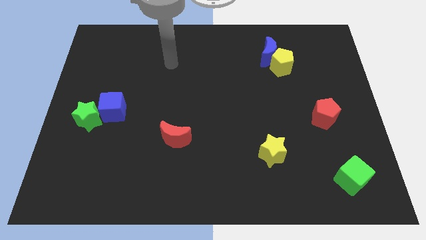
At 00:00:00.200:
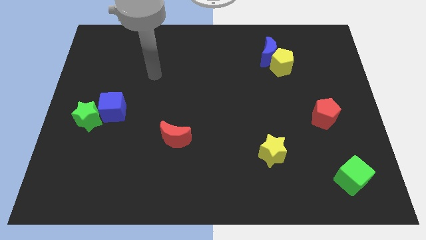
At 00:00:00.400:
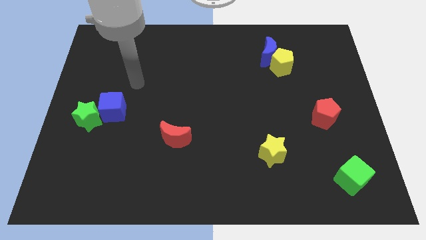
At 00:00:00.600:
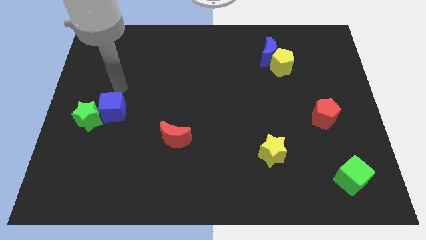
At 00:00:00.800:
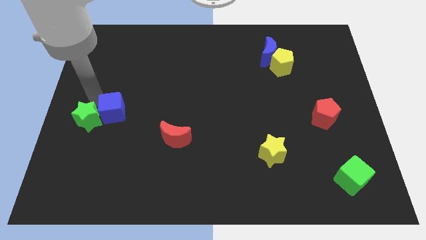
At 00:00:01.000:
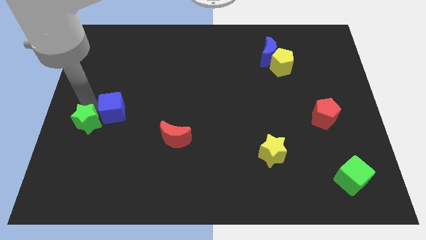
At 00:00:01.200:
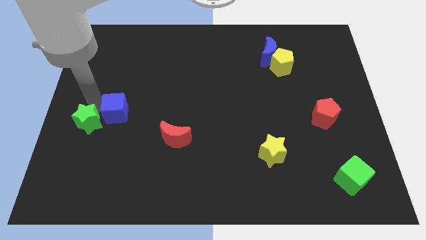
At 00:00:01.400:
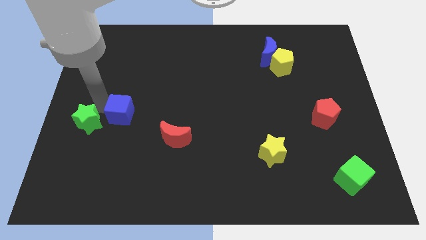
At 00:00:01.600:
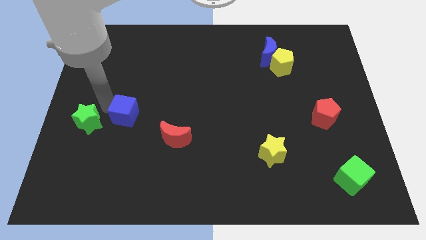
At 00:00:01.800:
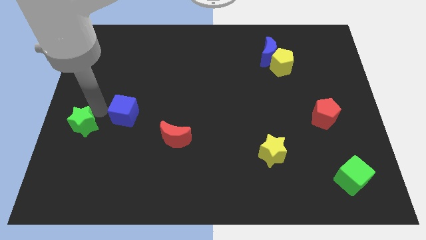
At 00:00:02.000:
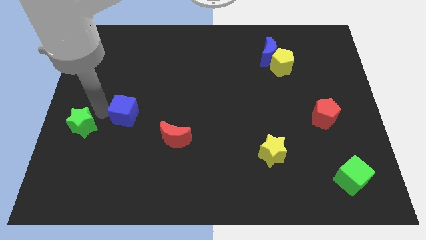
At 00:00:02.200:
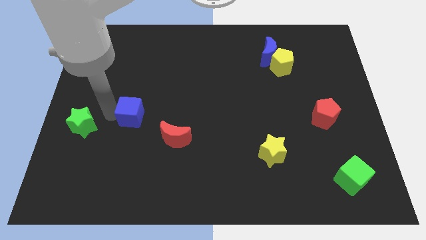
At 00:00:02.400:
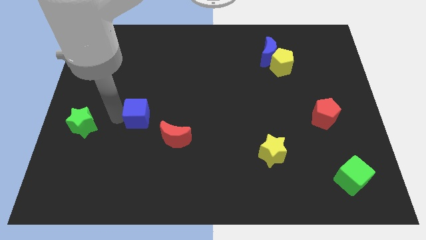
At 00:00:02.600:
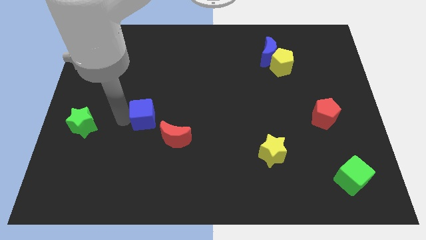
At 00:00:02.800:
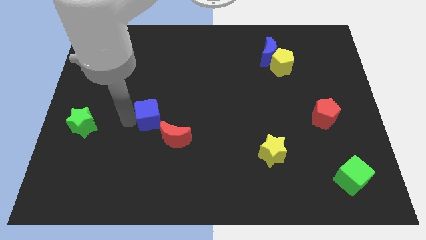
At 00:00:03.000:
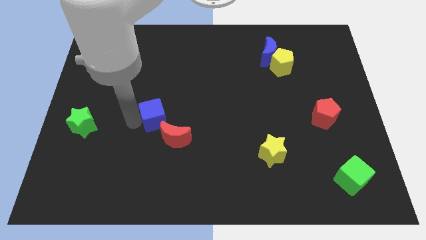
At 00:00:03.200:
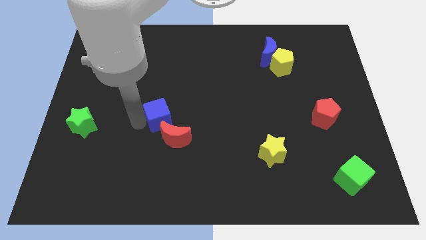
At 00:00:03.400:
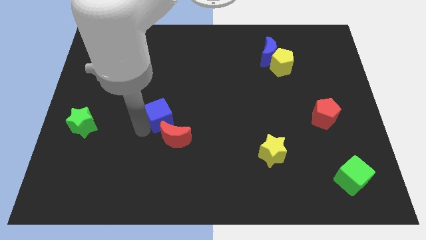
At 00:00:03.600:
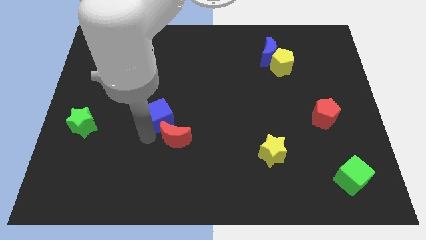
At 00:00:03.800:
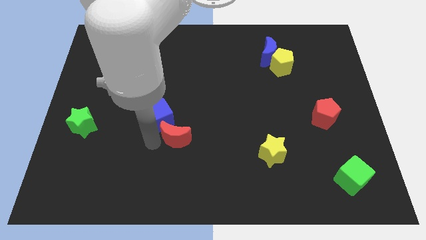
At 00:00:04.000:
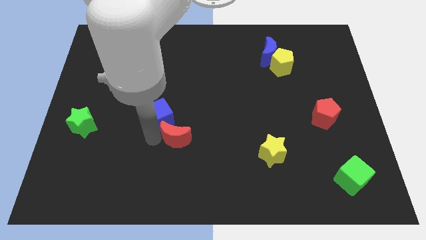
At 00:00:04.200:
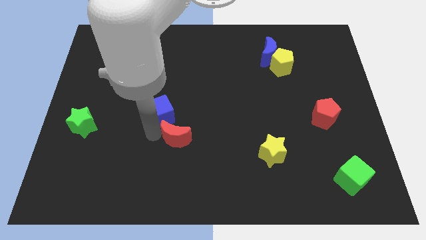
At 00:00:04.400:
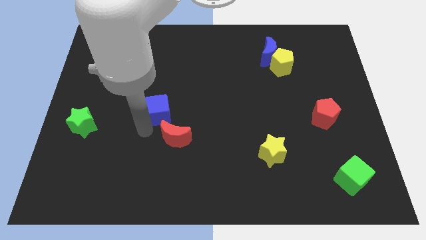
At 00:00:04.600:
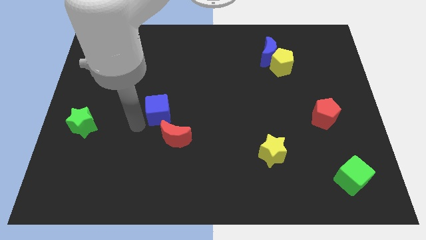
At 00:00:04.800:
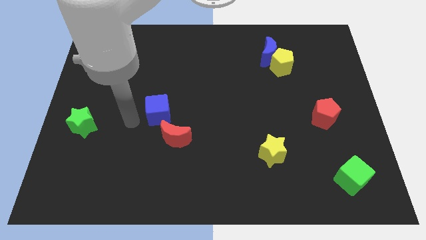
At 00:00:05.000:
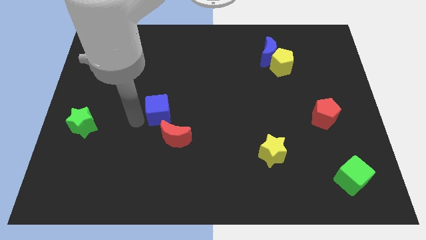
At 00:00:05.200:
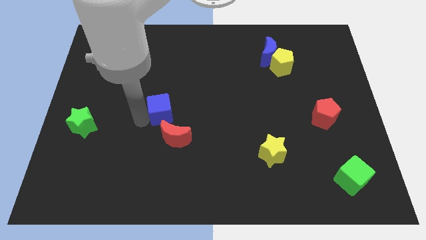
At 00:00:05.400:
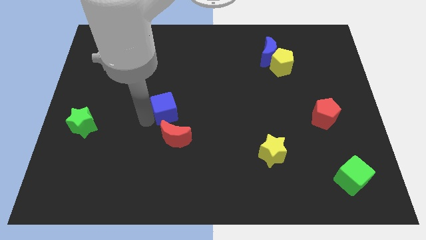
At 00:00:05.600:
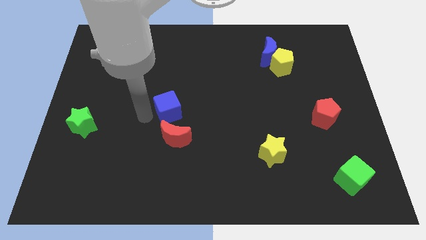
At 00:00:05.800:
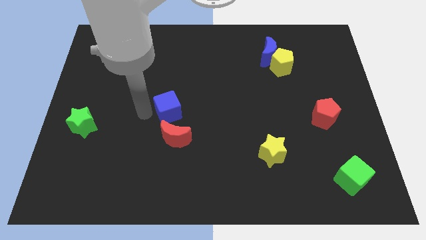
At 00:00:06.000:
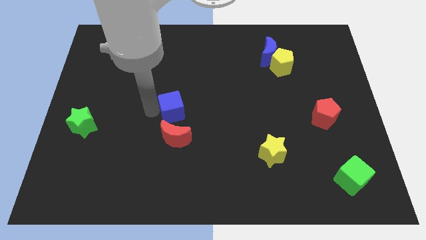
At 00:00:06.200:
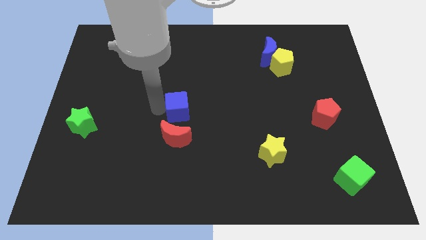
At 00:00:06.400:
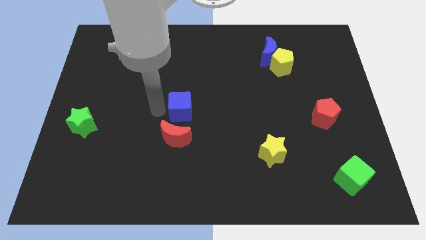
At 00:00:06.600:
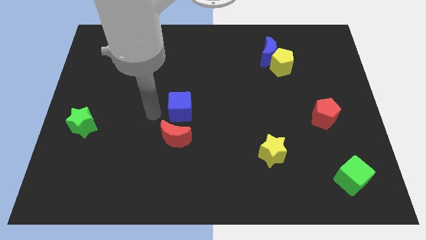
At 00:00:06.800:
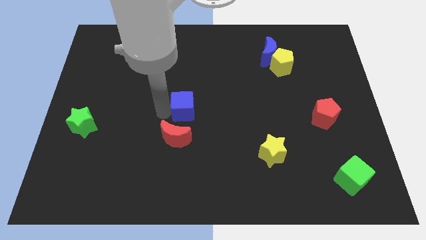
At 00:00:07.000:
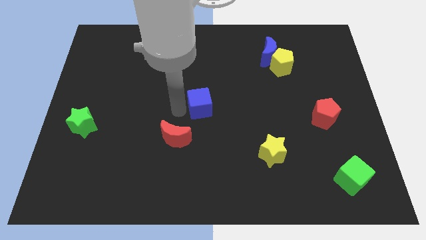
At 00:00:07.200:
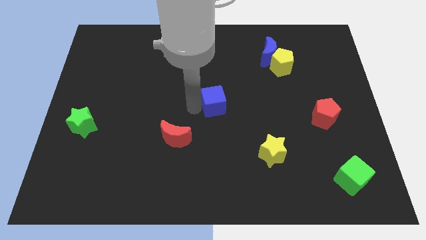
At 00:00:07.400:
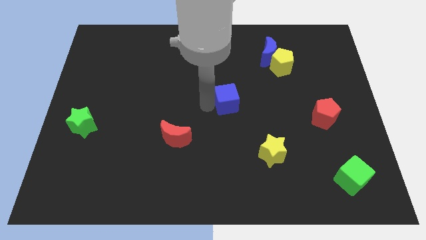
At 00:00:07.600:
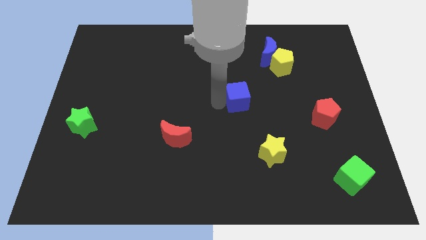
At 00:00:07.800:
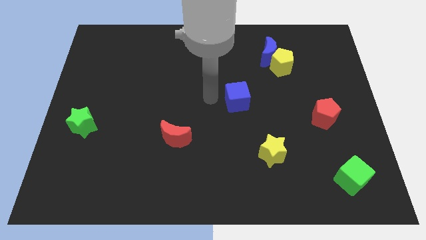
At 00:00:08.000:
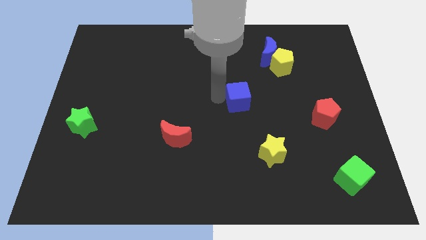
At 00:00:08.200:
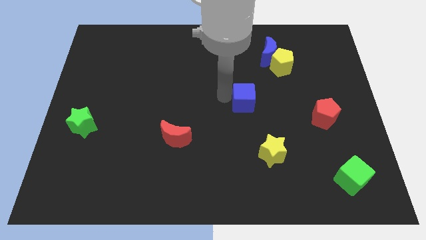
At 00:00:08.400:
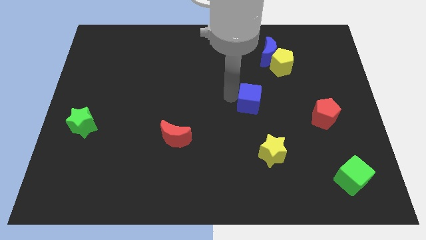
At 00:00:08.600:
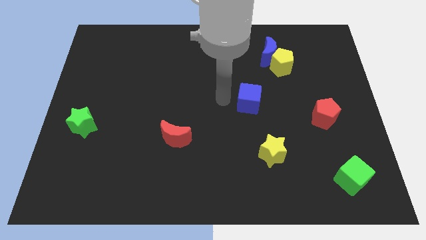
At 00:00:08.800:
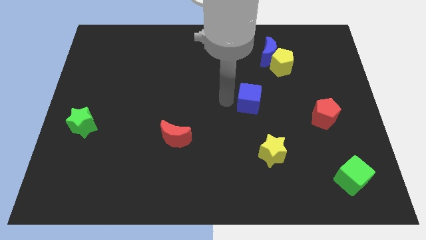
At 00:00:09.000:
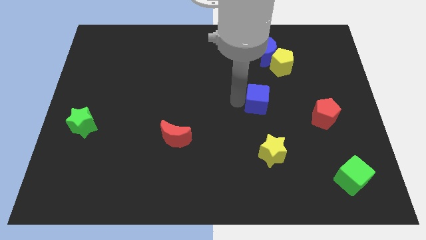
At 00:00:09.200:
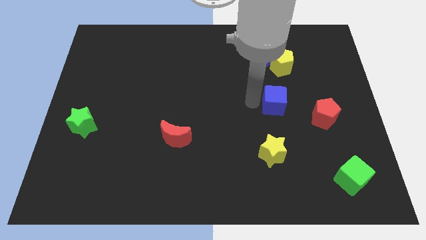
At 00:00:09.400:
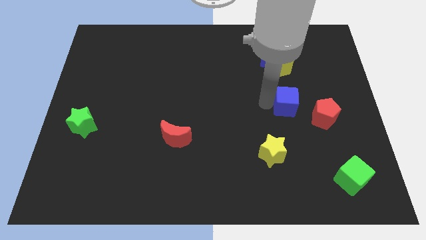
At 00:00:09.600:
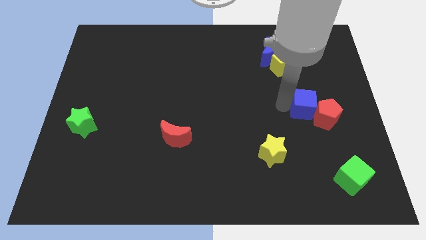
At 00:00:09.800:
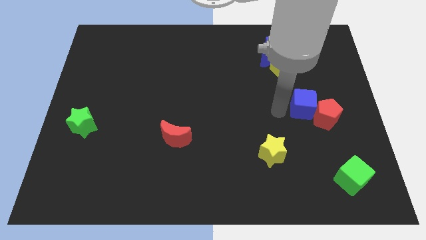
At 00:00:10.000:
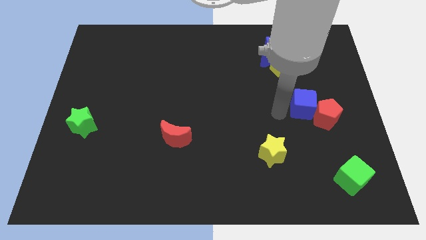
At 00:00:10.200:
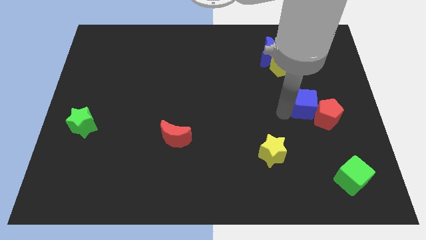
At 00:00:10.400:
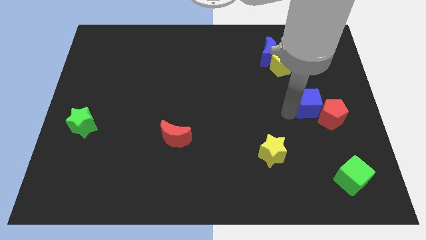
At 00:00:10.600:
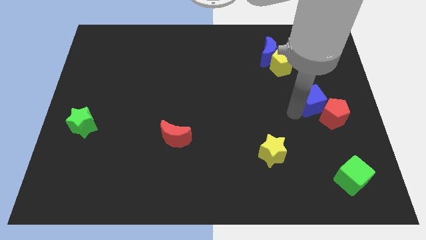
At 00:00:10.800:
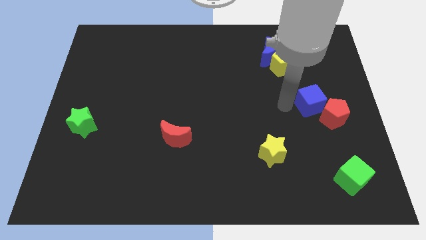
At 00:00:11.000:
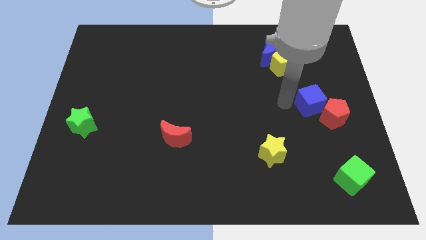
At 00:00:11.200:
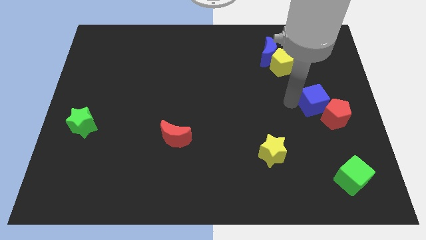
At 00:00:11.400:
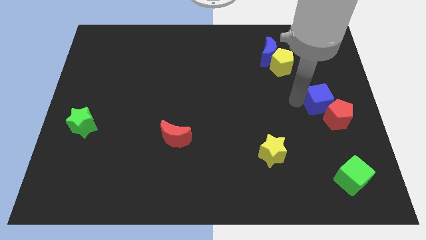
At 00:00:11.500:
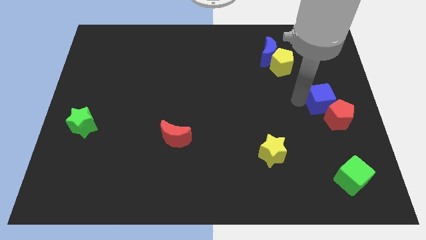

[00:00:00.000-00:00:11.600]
slide the blue cube to the center right

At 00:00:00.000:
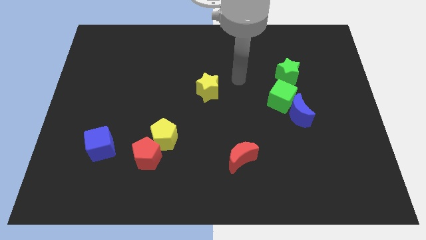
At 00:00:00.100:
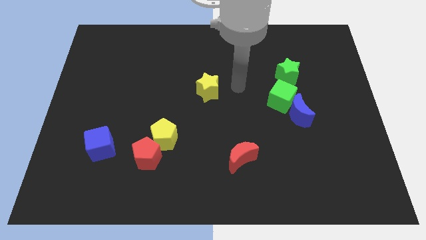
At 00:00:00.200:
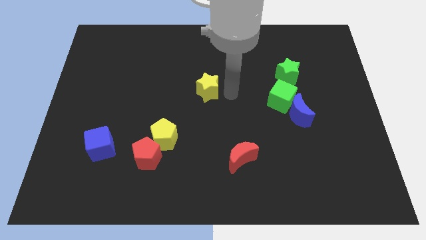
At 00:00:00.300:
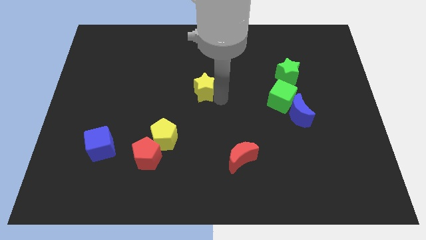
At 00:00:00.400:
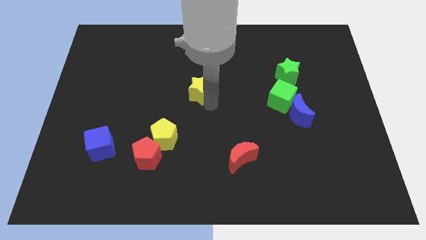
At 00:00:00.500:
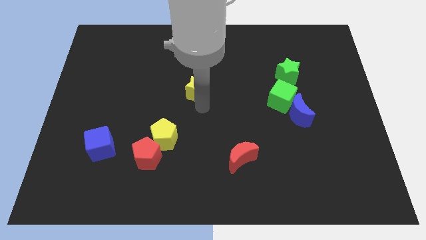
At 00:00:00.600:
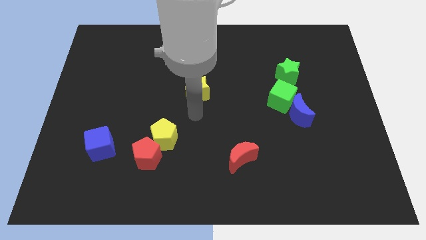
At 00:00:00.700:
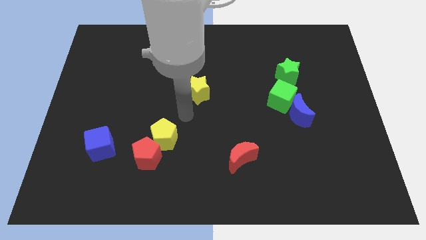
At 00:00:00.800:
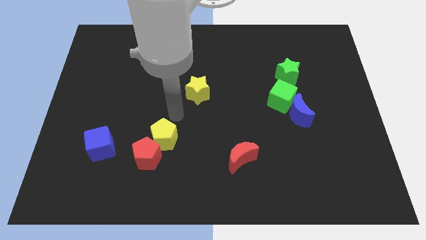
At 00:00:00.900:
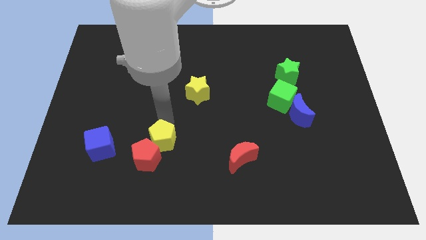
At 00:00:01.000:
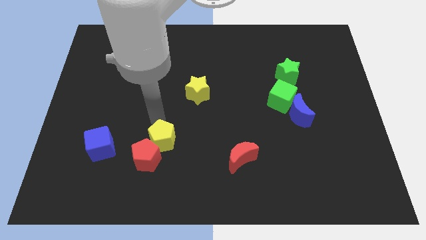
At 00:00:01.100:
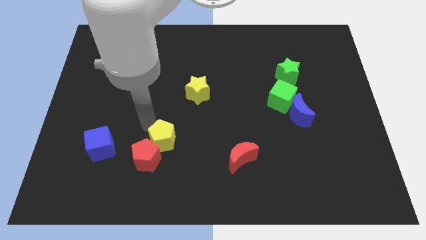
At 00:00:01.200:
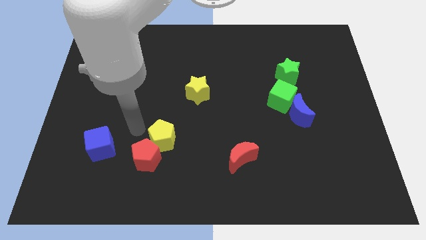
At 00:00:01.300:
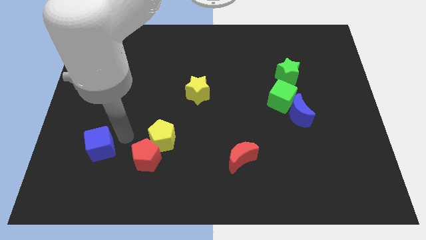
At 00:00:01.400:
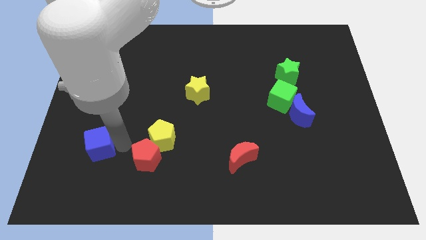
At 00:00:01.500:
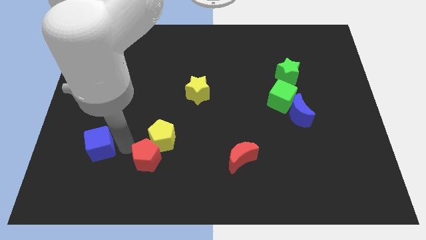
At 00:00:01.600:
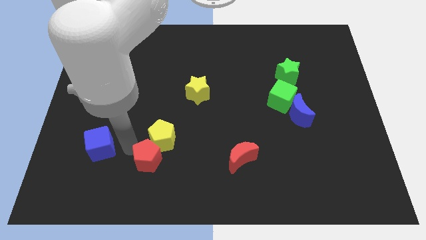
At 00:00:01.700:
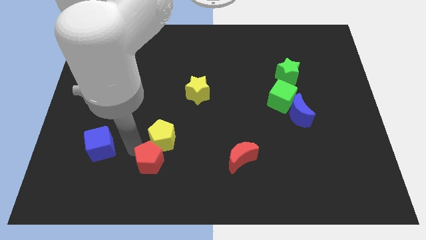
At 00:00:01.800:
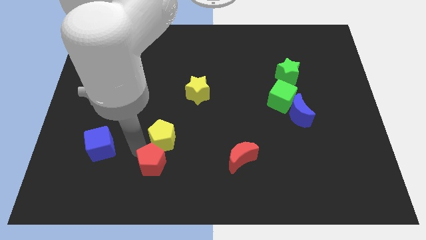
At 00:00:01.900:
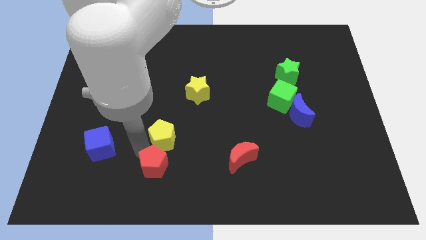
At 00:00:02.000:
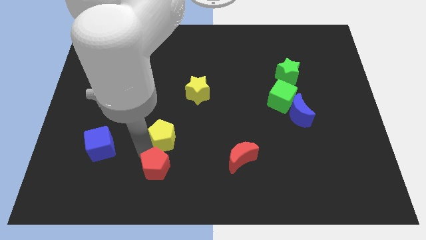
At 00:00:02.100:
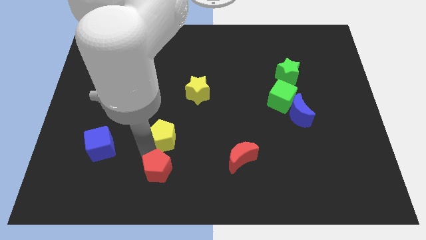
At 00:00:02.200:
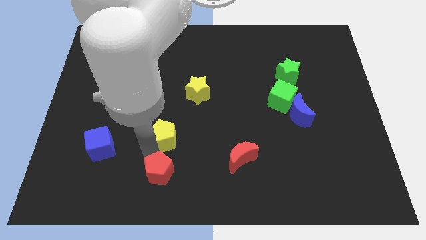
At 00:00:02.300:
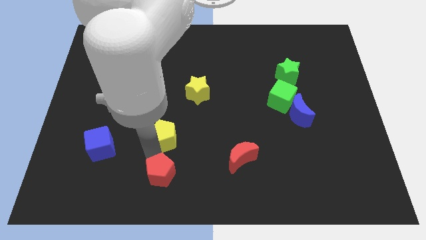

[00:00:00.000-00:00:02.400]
move the red pentagon to the bottom side
